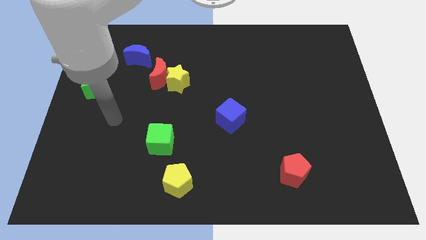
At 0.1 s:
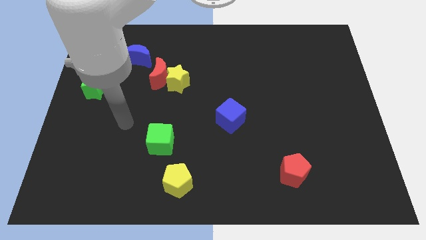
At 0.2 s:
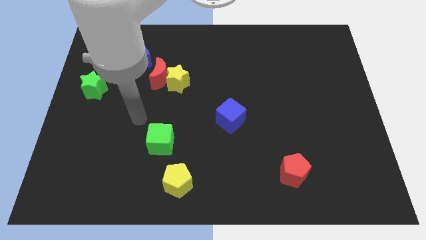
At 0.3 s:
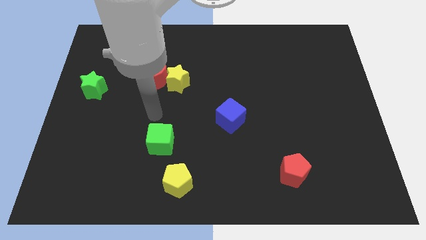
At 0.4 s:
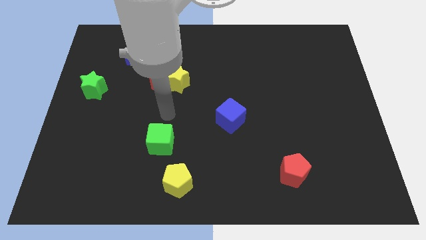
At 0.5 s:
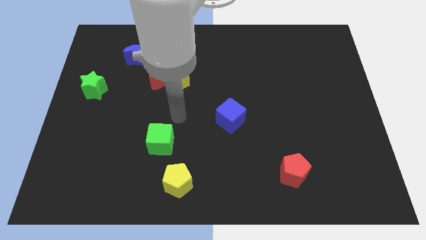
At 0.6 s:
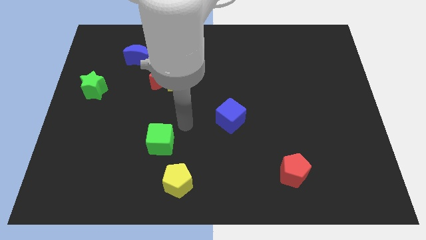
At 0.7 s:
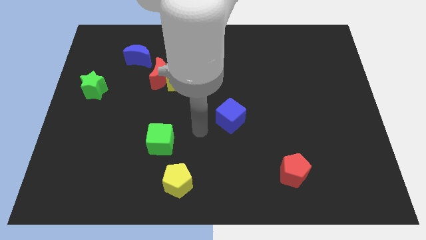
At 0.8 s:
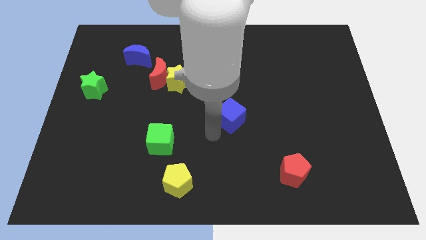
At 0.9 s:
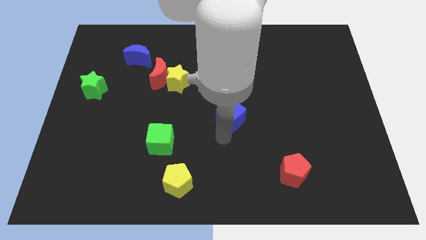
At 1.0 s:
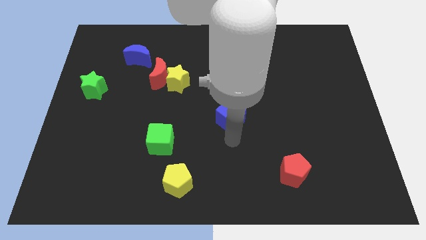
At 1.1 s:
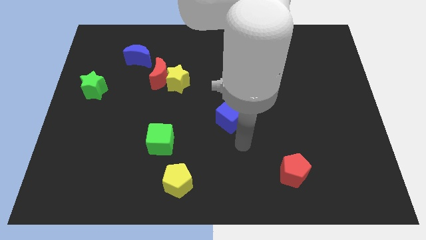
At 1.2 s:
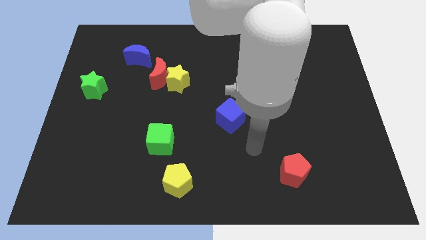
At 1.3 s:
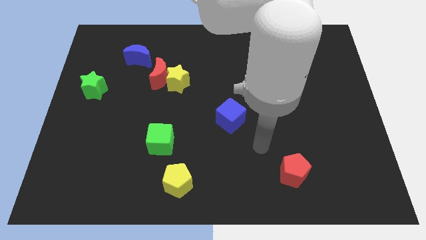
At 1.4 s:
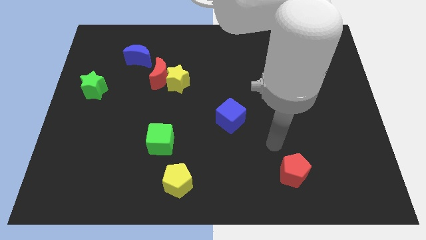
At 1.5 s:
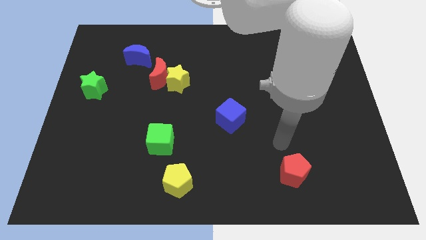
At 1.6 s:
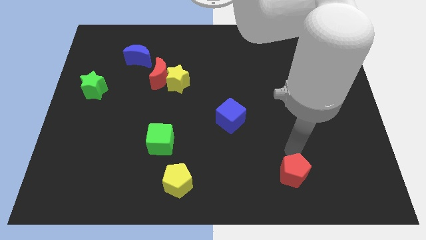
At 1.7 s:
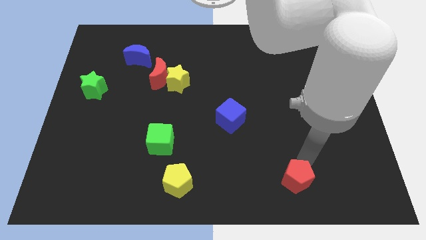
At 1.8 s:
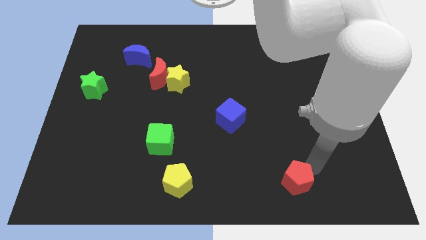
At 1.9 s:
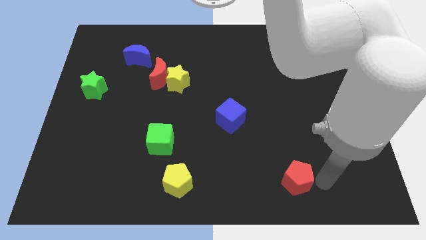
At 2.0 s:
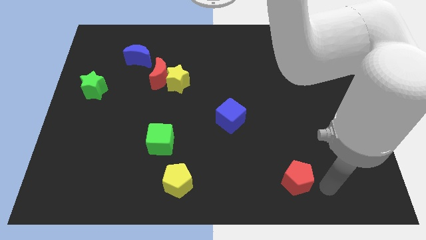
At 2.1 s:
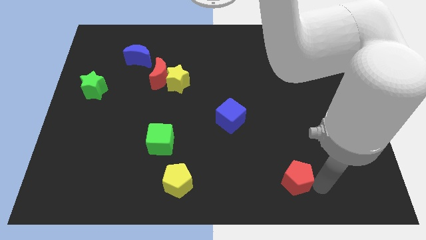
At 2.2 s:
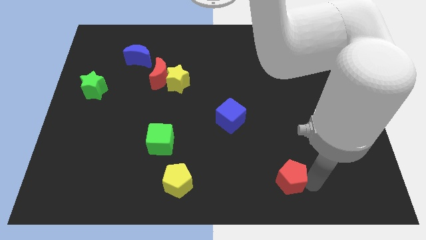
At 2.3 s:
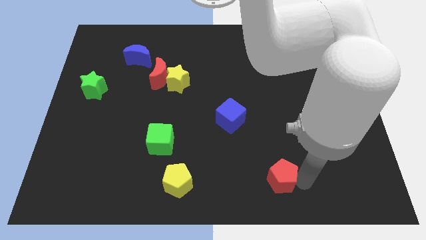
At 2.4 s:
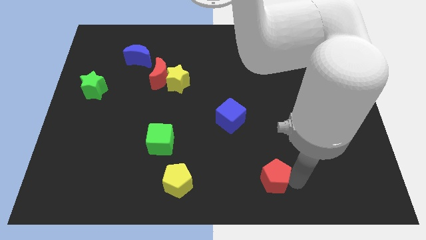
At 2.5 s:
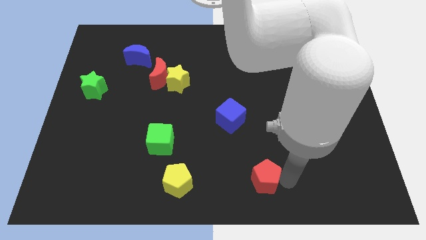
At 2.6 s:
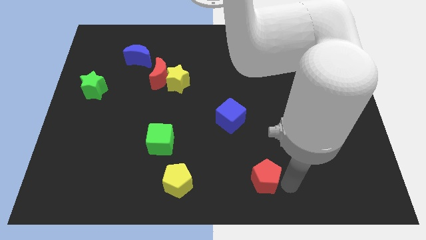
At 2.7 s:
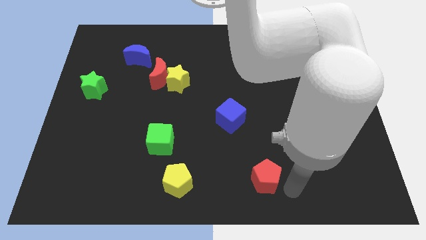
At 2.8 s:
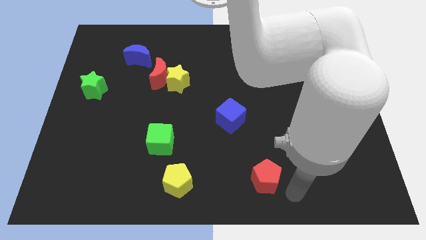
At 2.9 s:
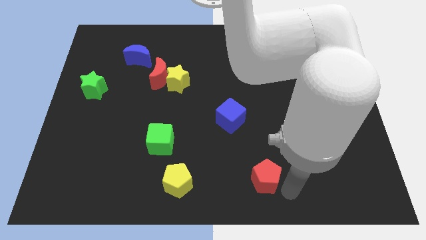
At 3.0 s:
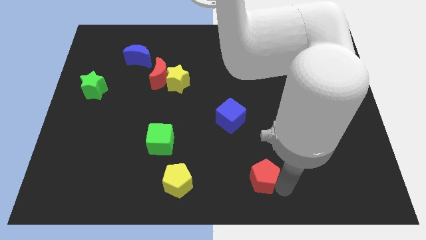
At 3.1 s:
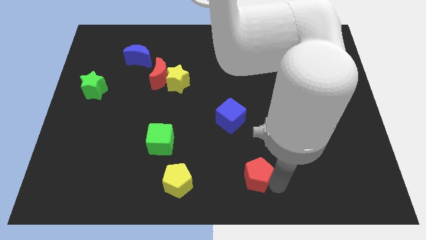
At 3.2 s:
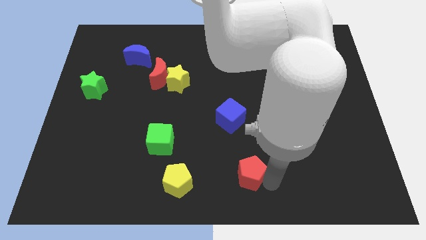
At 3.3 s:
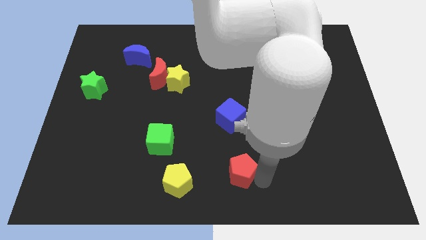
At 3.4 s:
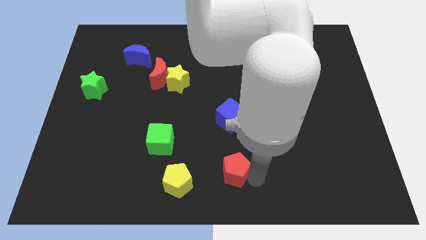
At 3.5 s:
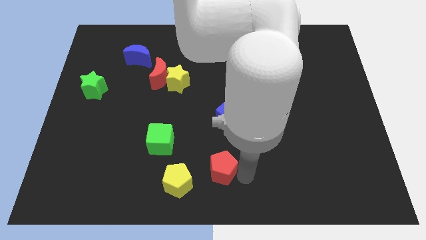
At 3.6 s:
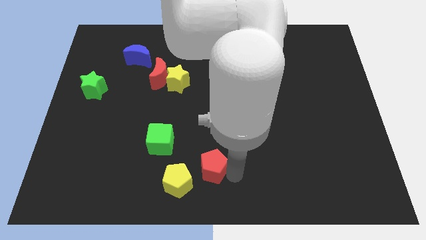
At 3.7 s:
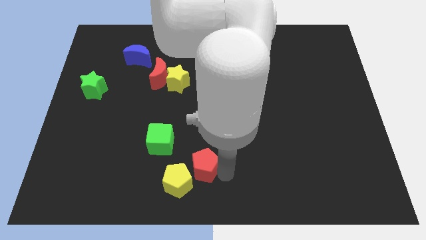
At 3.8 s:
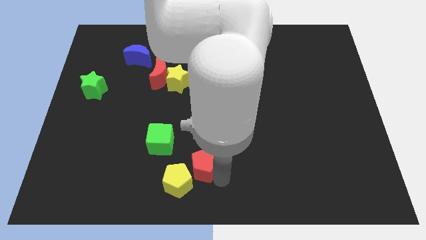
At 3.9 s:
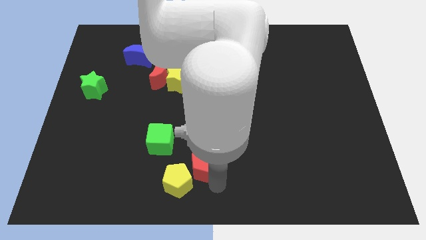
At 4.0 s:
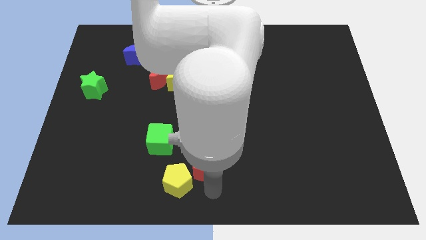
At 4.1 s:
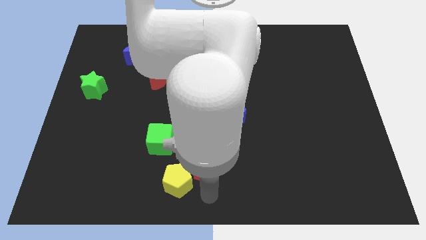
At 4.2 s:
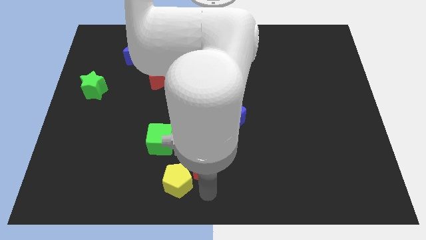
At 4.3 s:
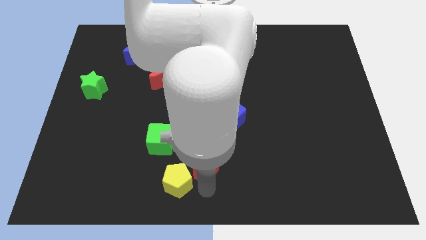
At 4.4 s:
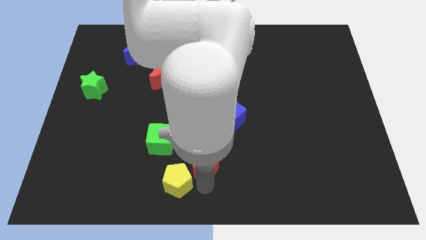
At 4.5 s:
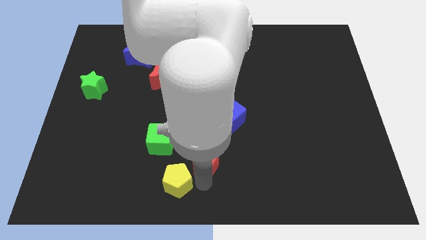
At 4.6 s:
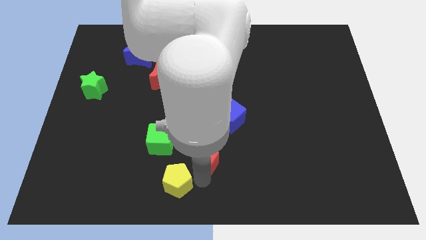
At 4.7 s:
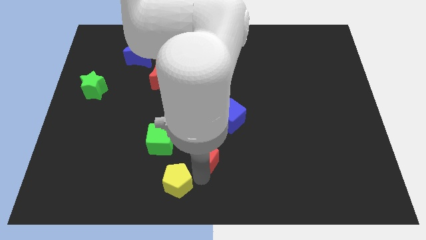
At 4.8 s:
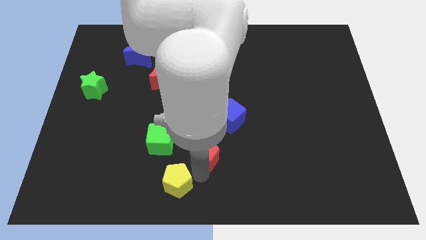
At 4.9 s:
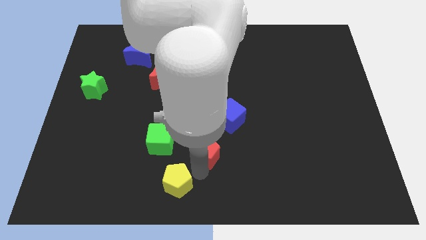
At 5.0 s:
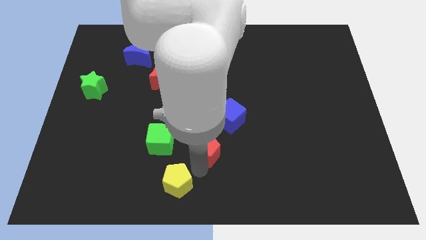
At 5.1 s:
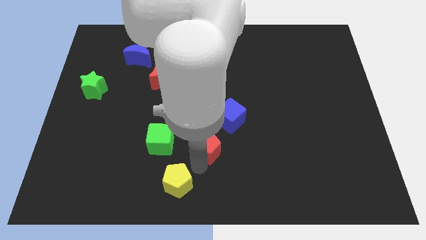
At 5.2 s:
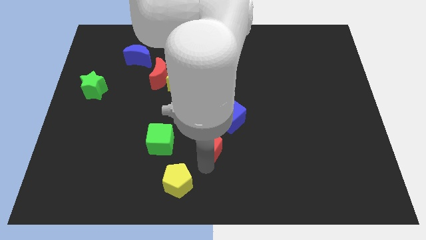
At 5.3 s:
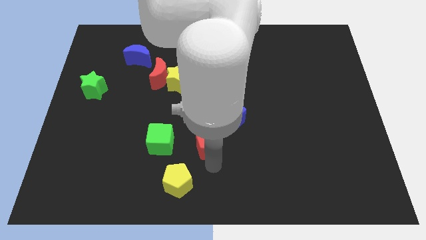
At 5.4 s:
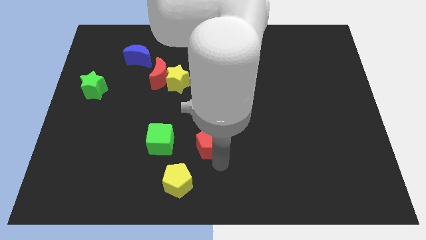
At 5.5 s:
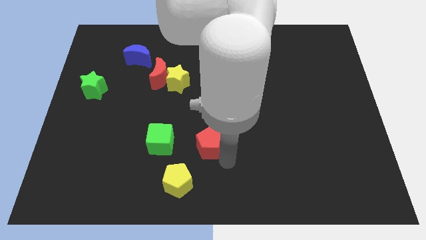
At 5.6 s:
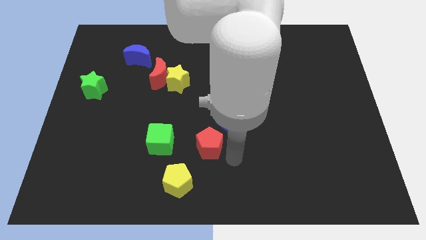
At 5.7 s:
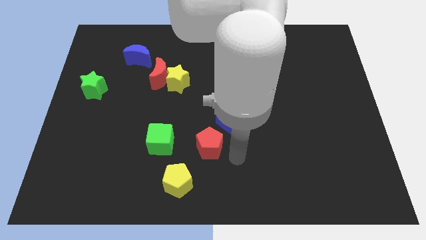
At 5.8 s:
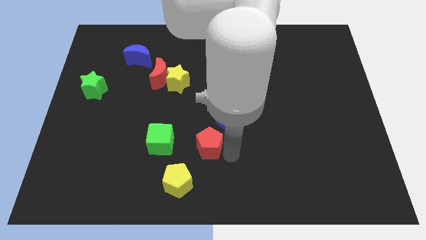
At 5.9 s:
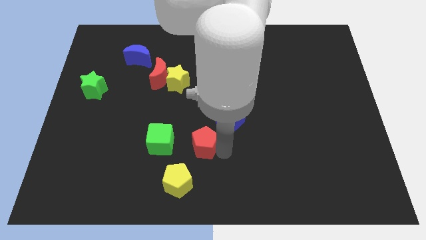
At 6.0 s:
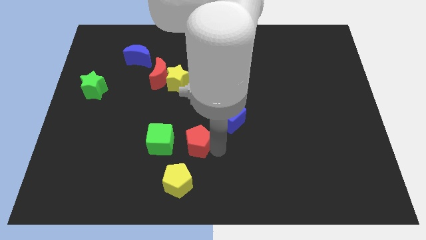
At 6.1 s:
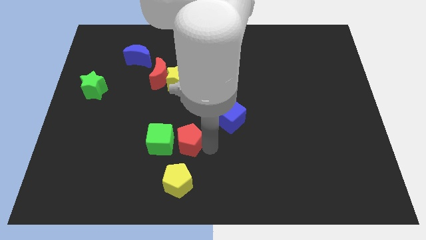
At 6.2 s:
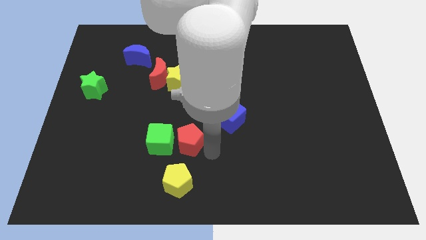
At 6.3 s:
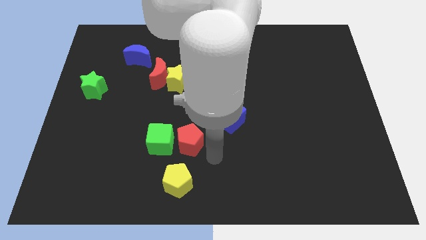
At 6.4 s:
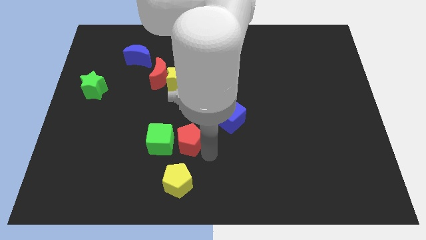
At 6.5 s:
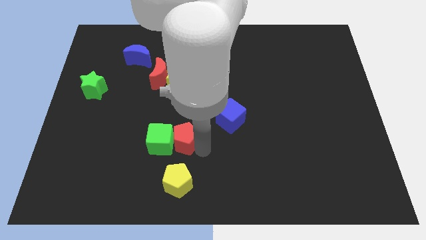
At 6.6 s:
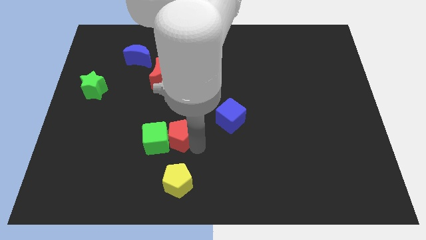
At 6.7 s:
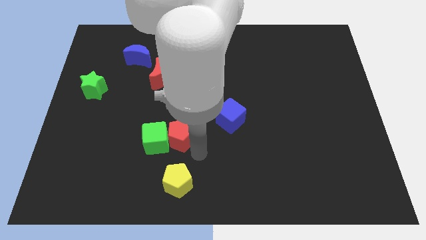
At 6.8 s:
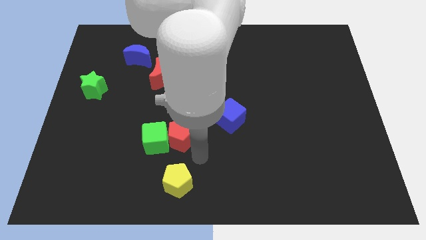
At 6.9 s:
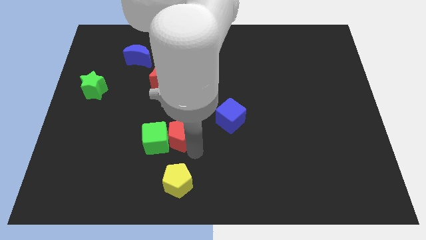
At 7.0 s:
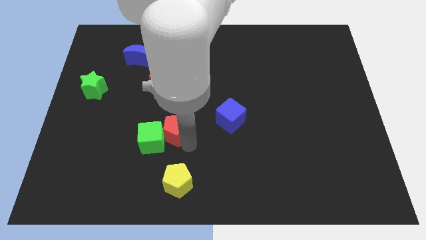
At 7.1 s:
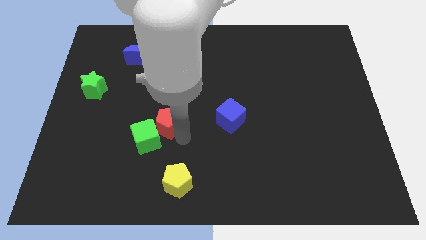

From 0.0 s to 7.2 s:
slide the red pentagon to the bottom side of the red moon
